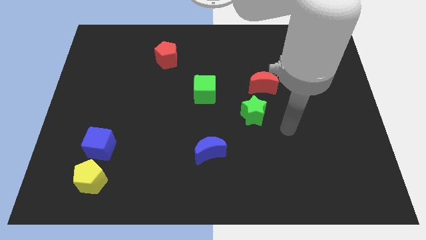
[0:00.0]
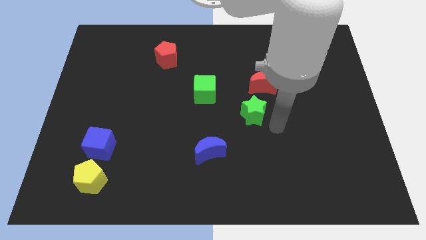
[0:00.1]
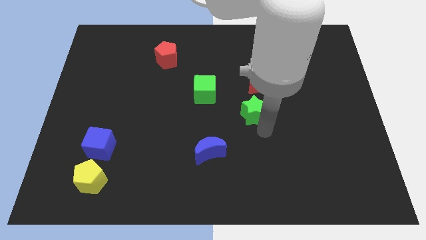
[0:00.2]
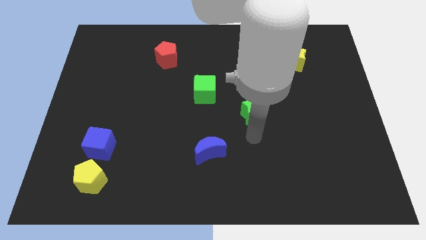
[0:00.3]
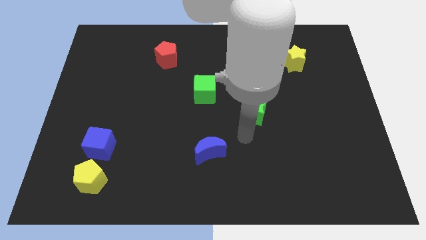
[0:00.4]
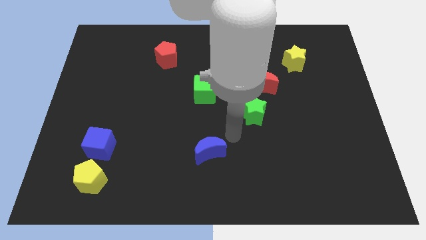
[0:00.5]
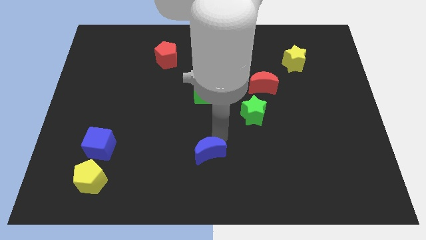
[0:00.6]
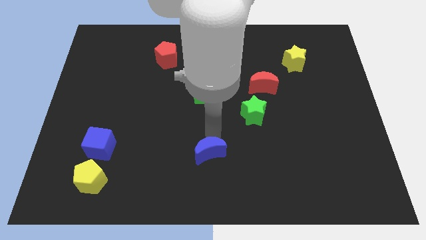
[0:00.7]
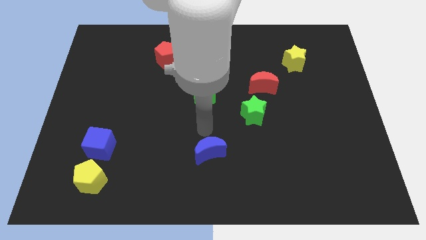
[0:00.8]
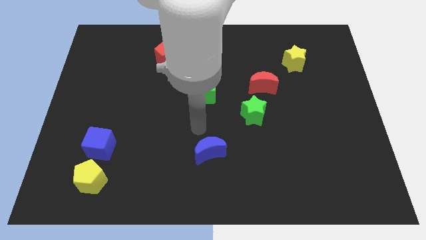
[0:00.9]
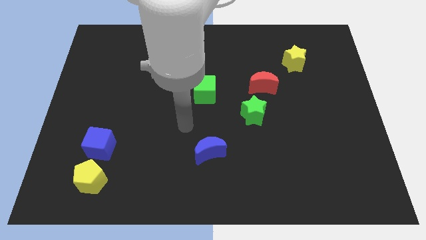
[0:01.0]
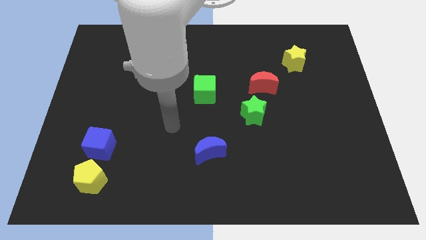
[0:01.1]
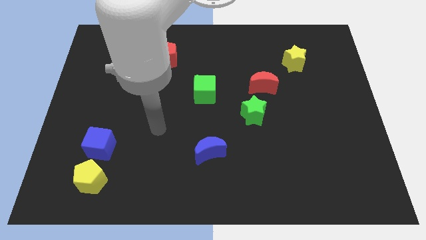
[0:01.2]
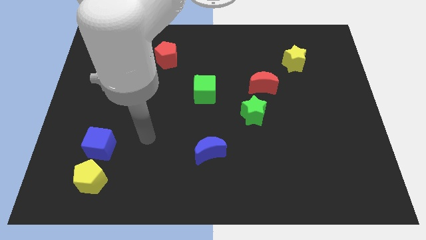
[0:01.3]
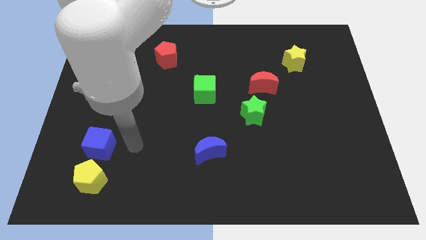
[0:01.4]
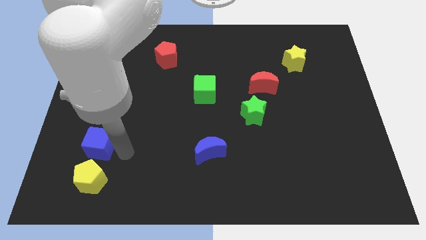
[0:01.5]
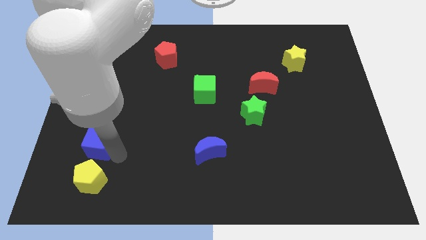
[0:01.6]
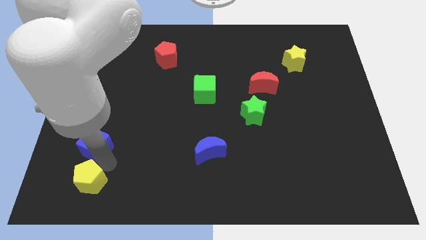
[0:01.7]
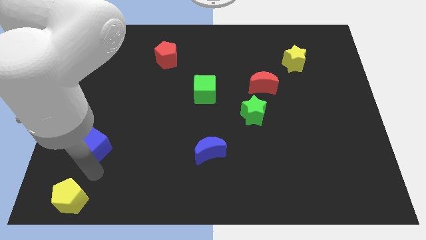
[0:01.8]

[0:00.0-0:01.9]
separate the blue cube from the yellow pentagon

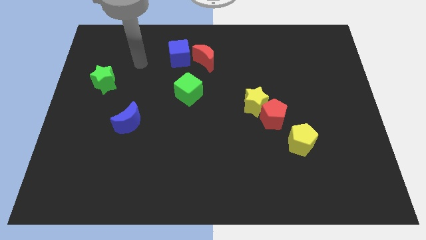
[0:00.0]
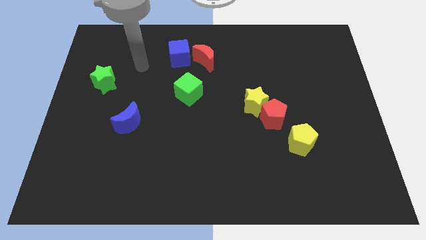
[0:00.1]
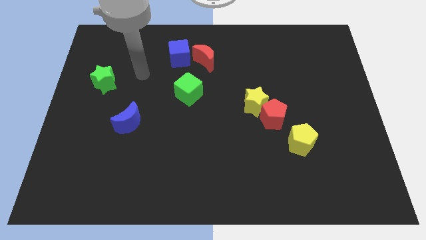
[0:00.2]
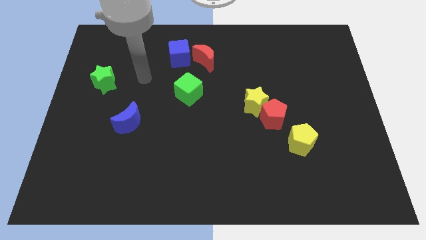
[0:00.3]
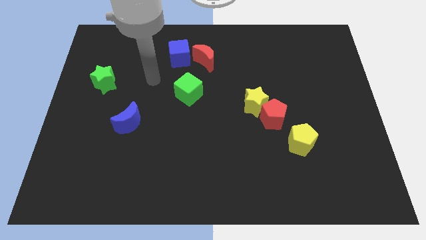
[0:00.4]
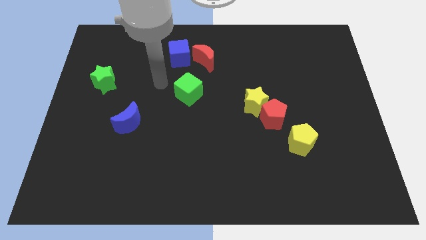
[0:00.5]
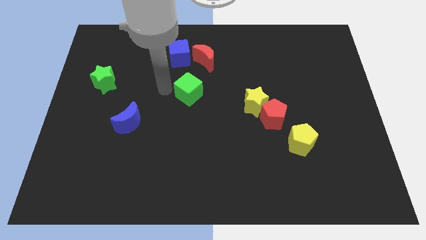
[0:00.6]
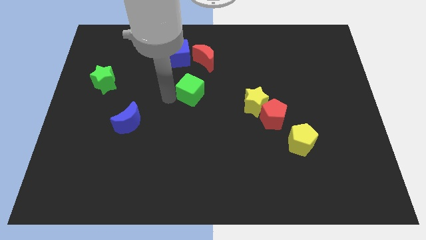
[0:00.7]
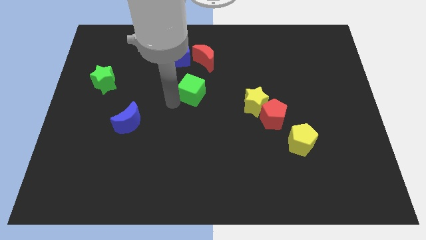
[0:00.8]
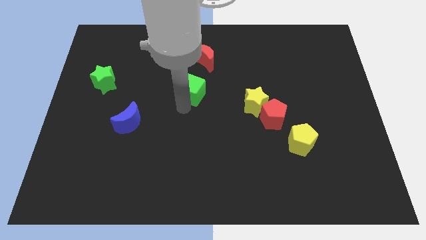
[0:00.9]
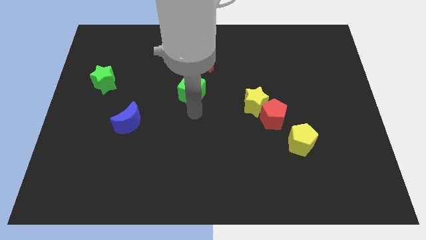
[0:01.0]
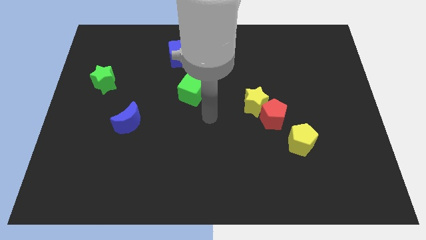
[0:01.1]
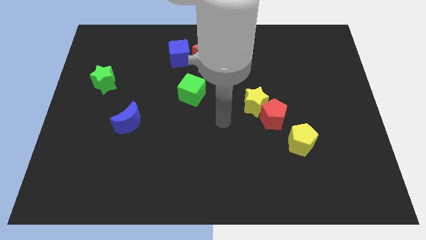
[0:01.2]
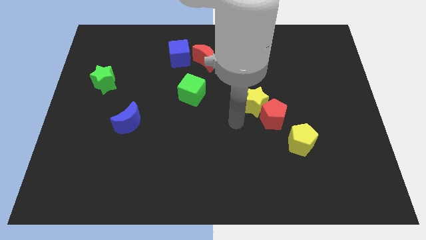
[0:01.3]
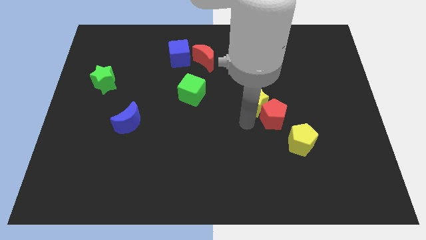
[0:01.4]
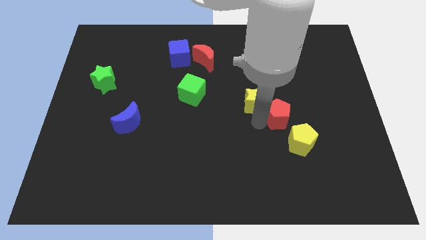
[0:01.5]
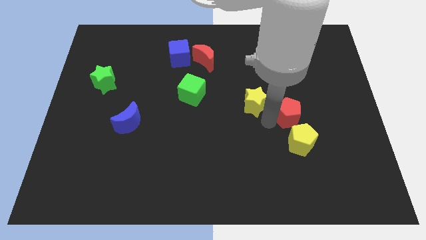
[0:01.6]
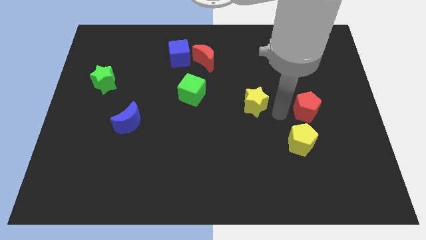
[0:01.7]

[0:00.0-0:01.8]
separate the yellow star from the red pentagon

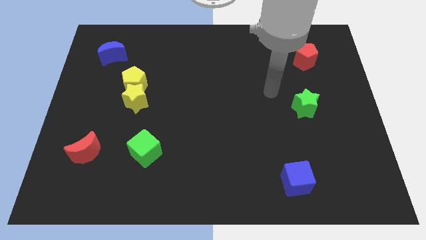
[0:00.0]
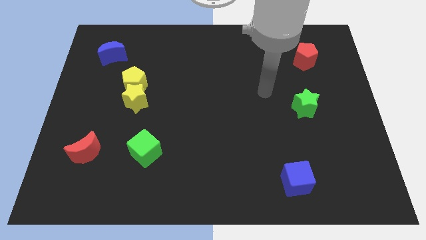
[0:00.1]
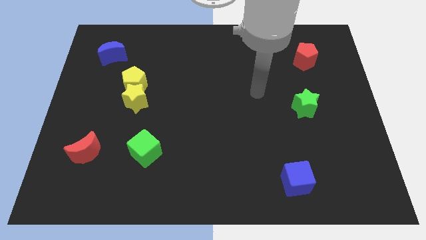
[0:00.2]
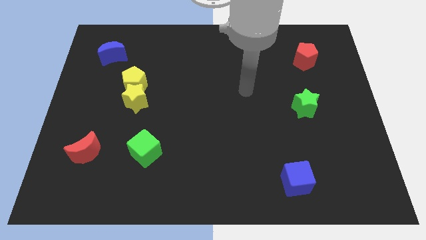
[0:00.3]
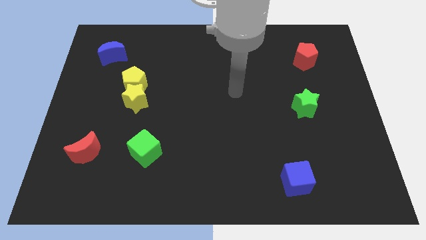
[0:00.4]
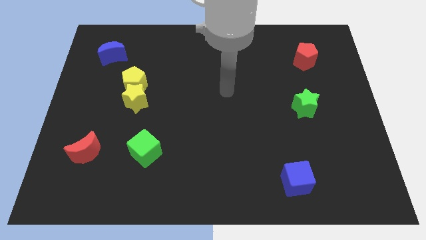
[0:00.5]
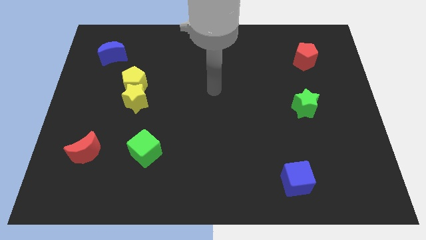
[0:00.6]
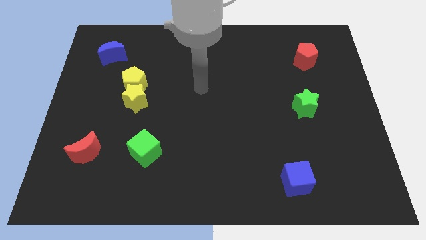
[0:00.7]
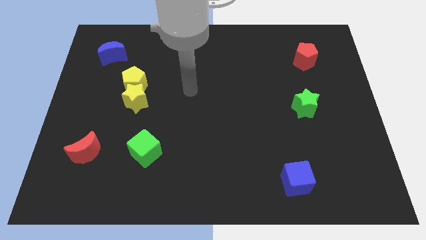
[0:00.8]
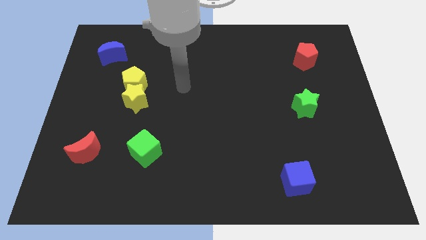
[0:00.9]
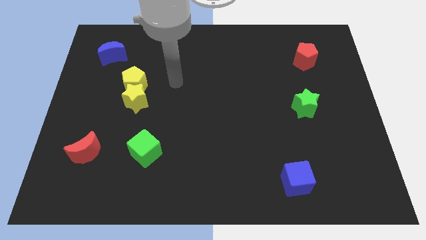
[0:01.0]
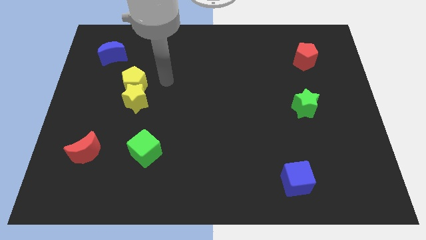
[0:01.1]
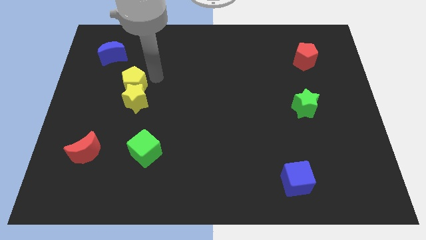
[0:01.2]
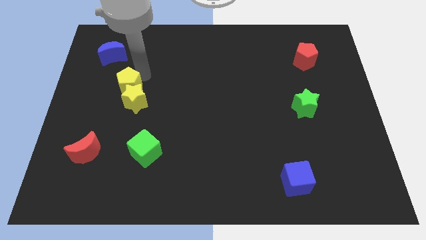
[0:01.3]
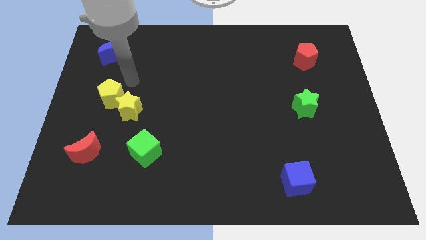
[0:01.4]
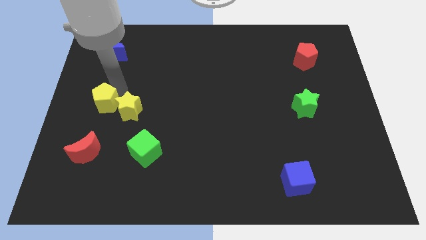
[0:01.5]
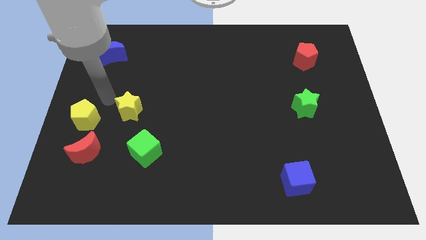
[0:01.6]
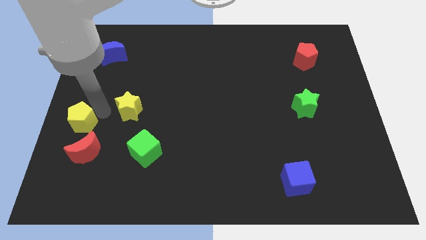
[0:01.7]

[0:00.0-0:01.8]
separate the yellow star from the yellow pentagon

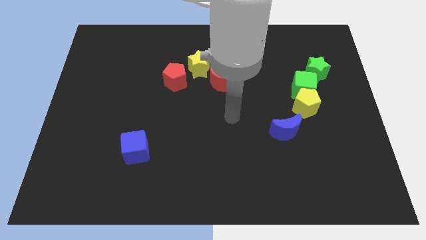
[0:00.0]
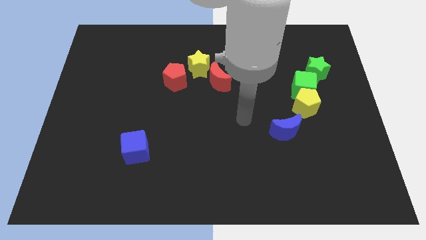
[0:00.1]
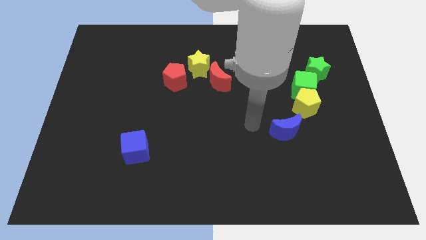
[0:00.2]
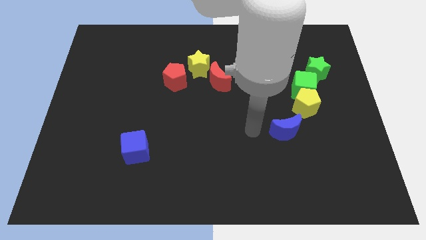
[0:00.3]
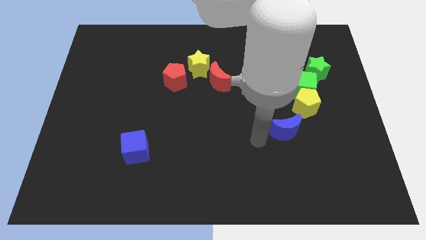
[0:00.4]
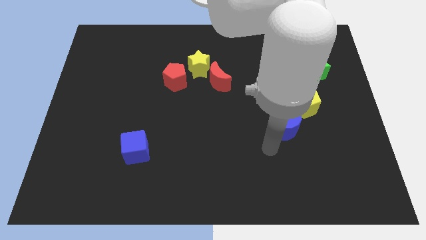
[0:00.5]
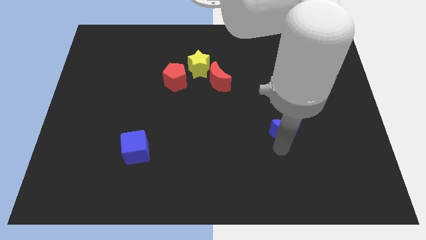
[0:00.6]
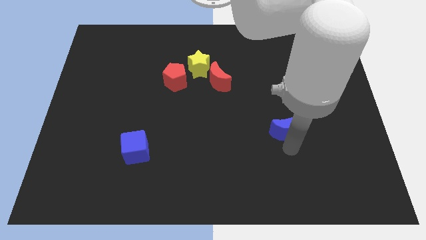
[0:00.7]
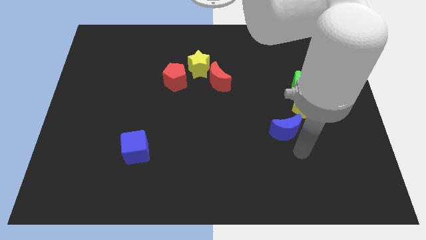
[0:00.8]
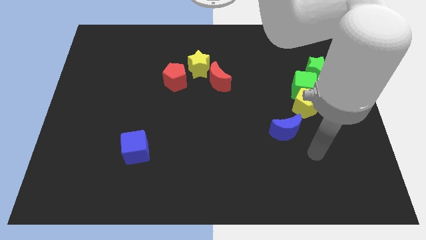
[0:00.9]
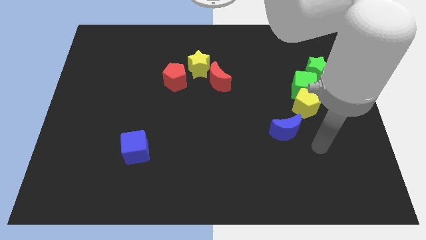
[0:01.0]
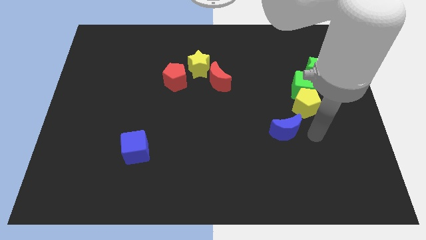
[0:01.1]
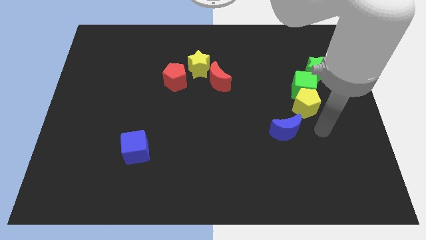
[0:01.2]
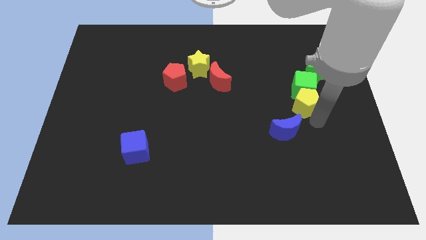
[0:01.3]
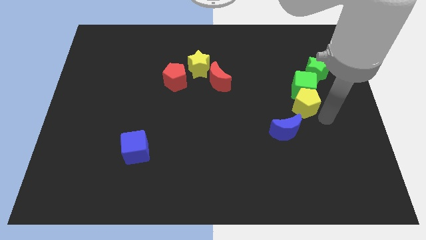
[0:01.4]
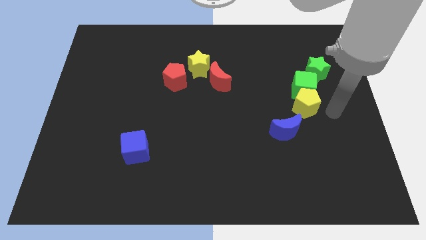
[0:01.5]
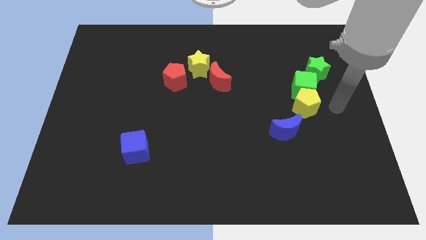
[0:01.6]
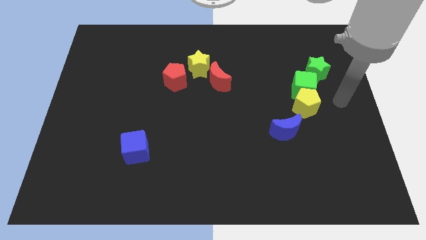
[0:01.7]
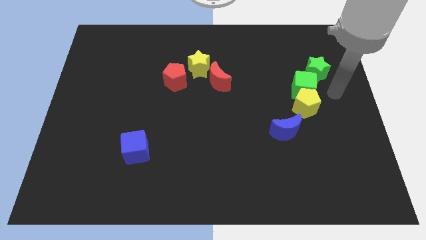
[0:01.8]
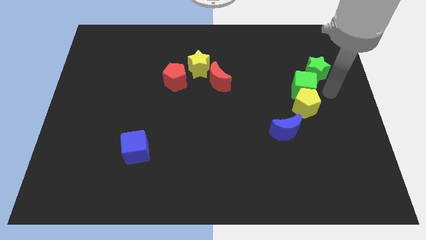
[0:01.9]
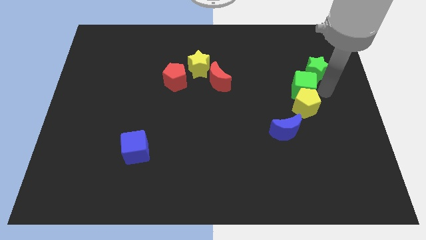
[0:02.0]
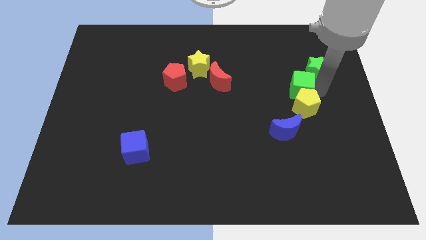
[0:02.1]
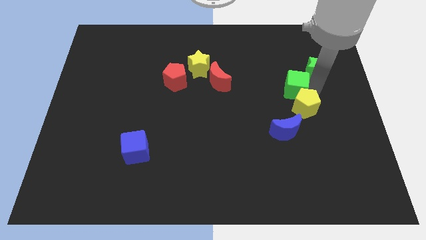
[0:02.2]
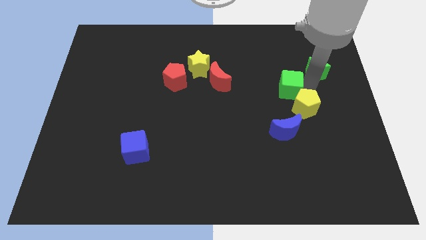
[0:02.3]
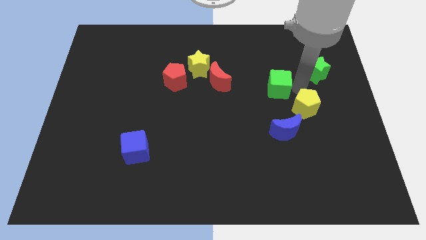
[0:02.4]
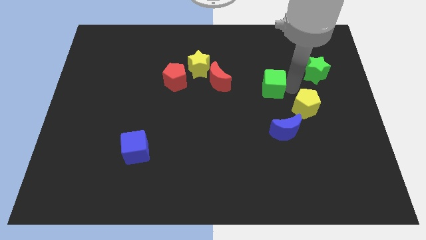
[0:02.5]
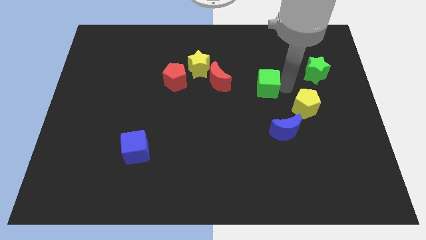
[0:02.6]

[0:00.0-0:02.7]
pull the green cube apart from the yellow pentagon and green star

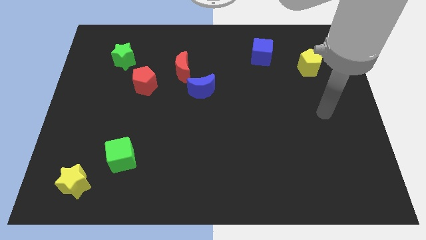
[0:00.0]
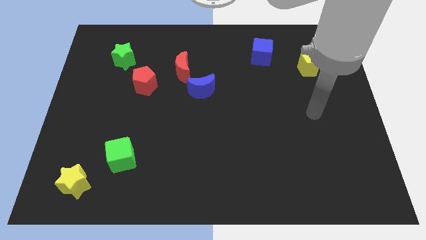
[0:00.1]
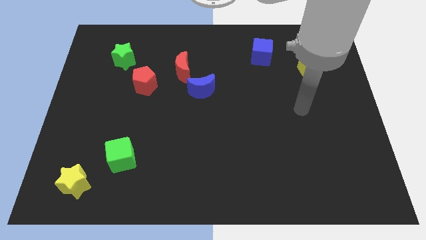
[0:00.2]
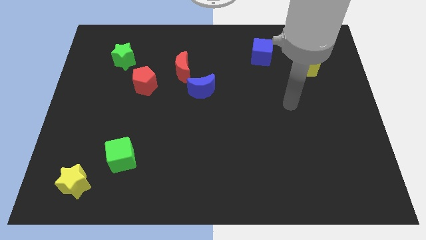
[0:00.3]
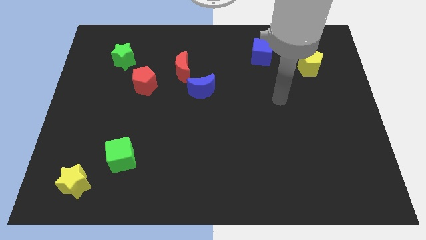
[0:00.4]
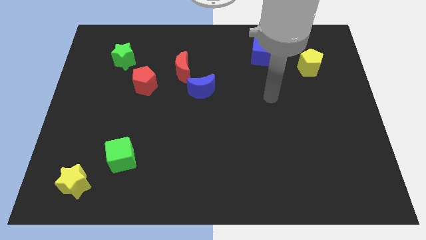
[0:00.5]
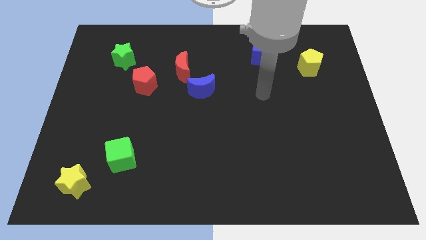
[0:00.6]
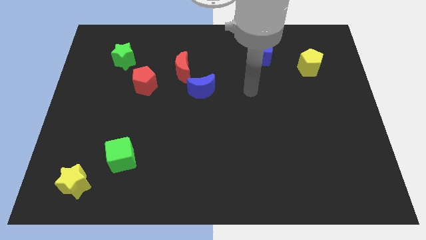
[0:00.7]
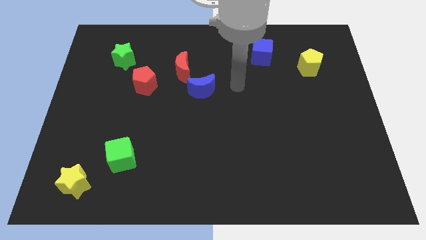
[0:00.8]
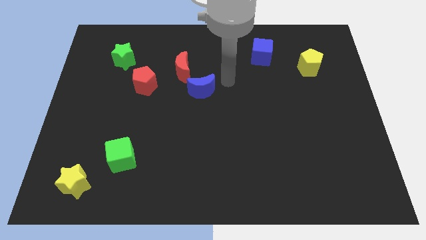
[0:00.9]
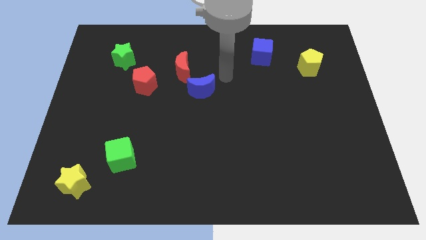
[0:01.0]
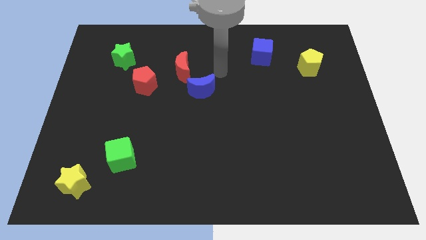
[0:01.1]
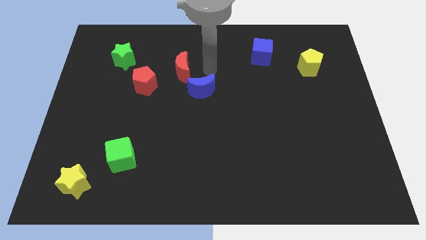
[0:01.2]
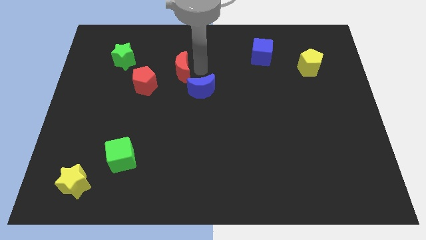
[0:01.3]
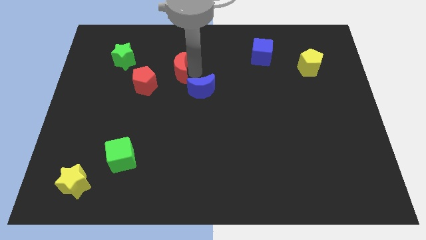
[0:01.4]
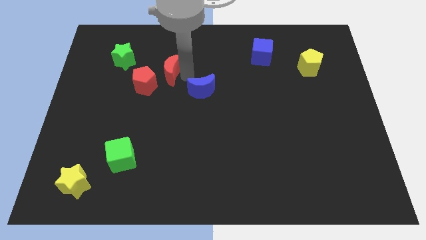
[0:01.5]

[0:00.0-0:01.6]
separate the blue moon from the red moon
